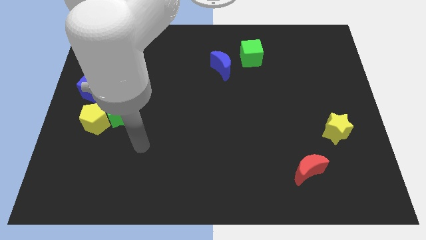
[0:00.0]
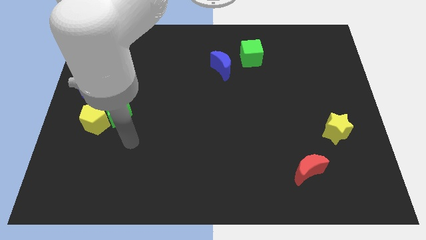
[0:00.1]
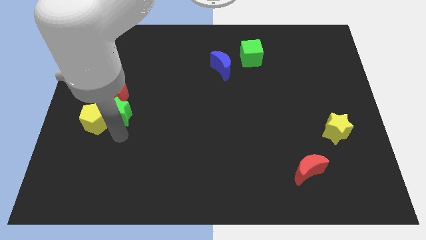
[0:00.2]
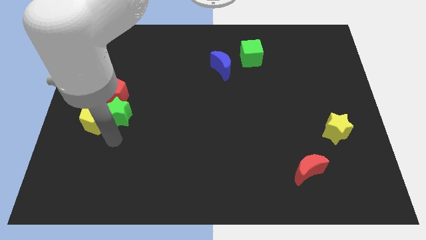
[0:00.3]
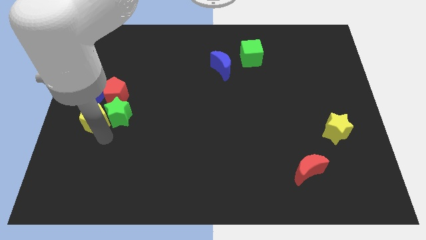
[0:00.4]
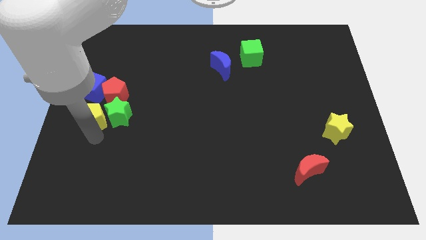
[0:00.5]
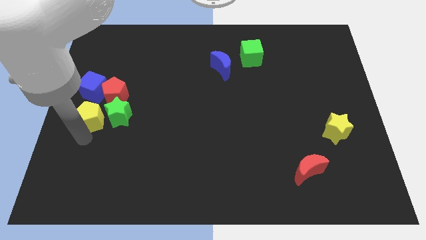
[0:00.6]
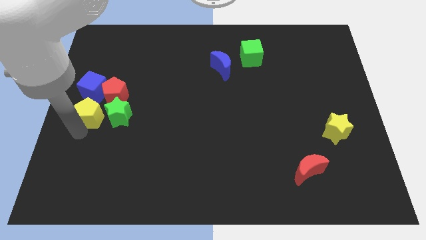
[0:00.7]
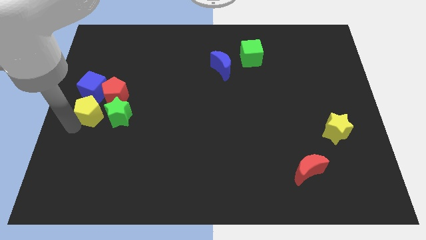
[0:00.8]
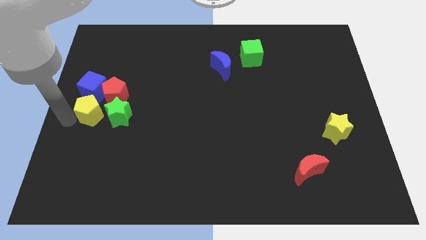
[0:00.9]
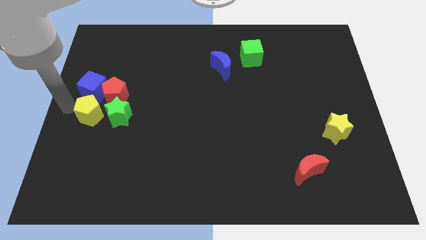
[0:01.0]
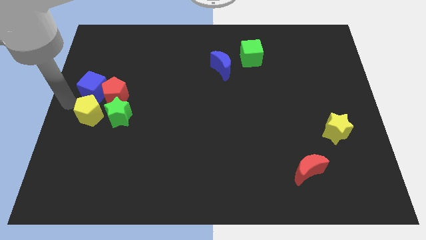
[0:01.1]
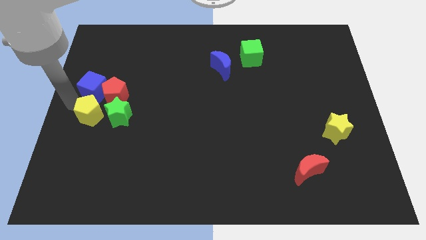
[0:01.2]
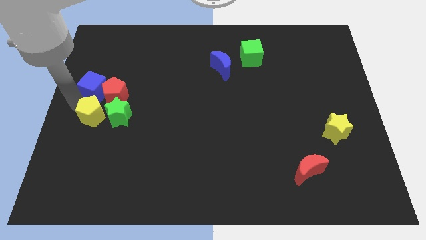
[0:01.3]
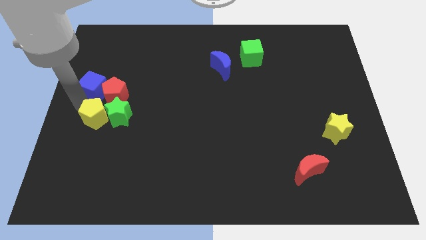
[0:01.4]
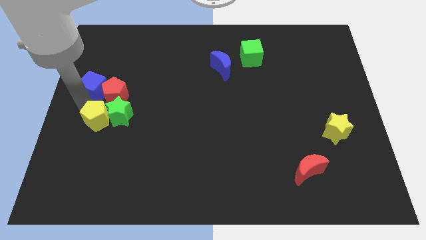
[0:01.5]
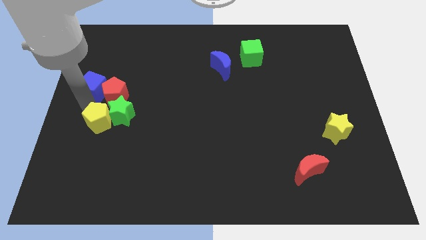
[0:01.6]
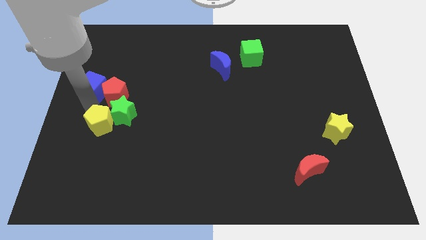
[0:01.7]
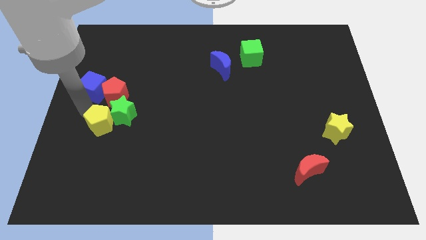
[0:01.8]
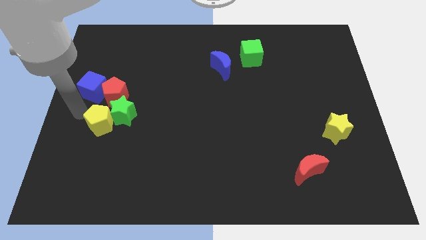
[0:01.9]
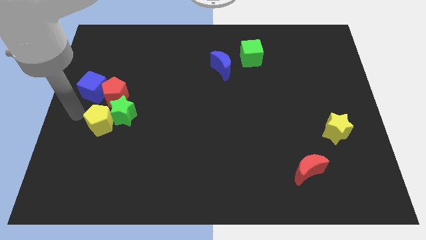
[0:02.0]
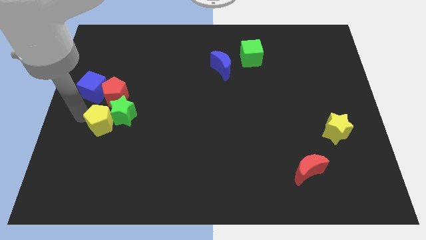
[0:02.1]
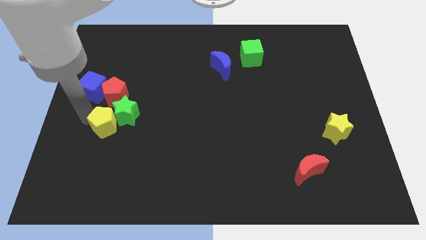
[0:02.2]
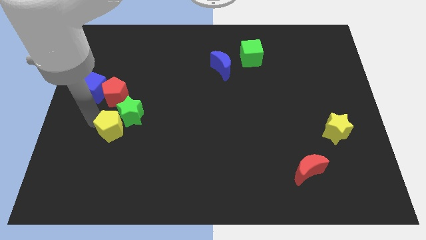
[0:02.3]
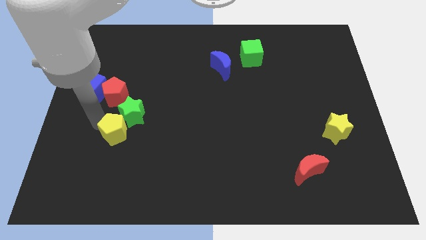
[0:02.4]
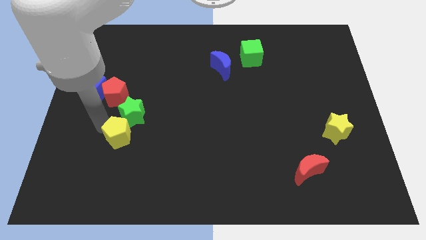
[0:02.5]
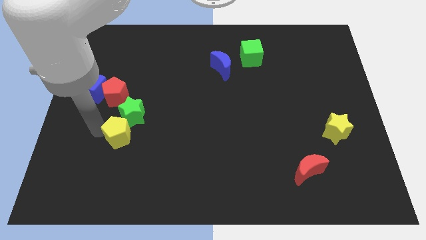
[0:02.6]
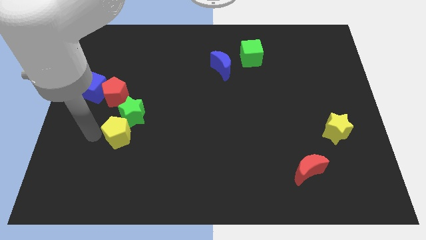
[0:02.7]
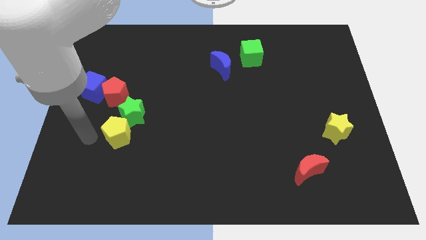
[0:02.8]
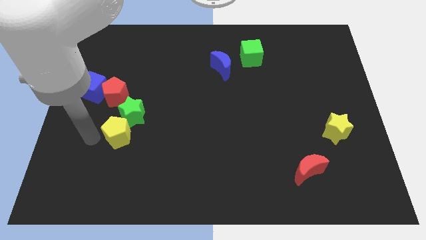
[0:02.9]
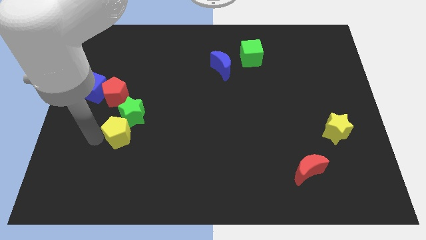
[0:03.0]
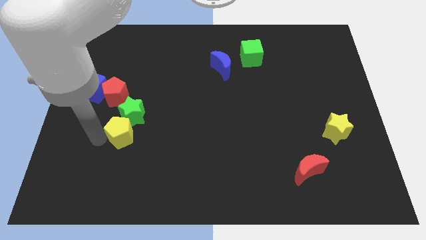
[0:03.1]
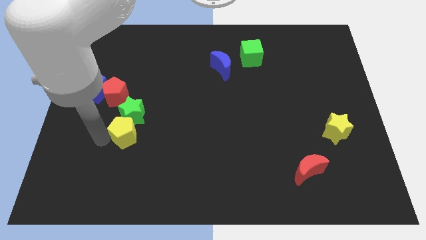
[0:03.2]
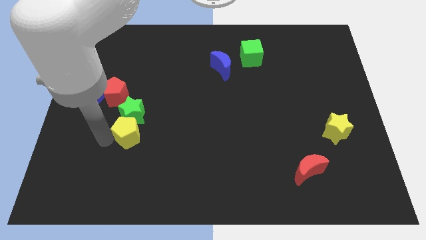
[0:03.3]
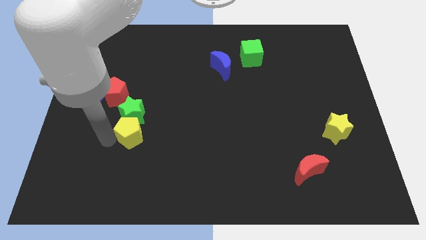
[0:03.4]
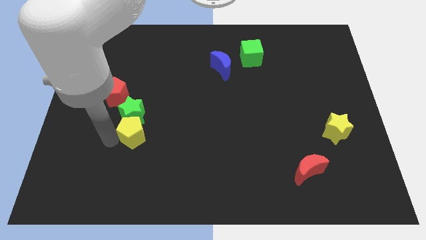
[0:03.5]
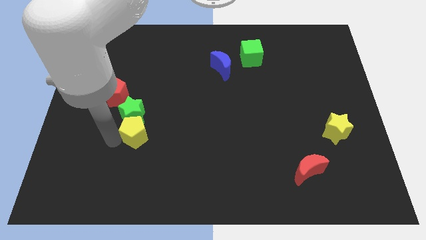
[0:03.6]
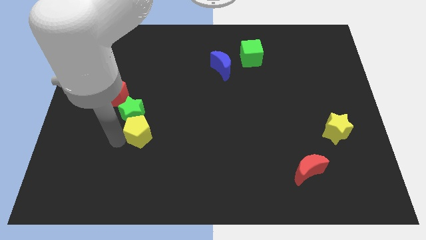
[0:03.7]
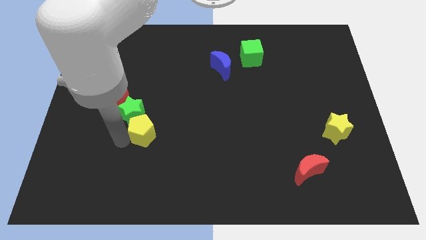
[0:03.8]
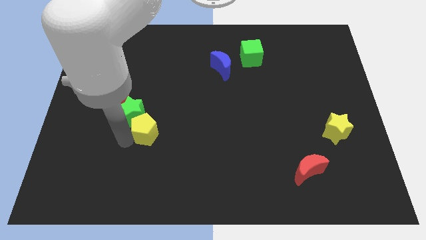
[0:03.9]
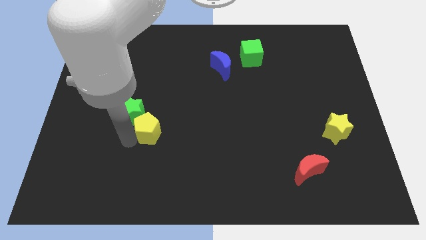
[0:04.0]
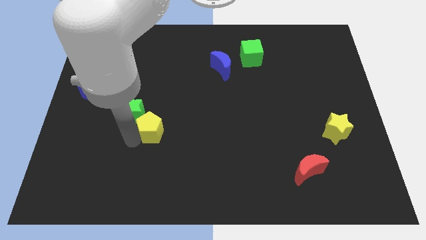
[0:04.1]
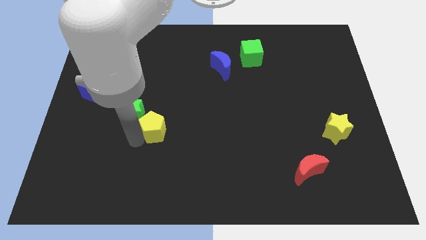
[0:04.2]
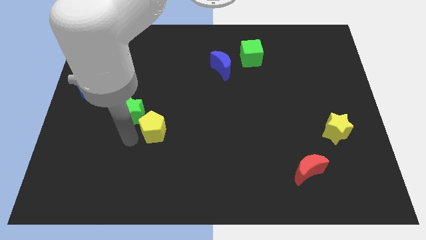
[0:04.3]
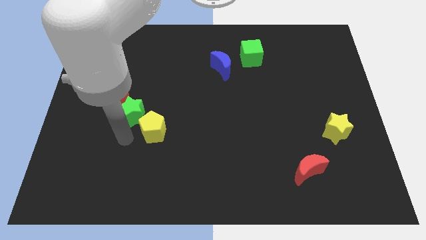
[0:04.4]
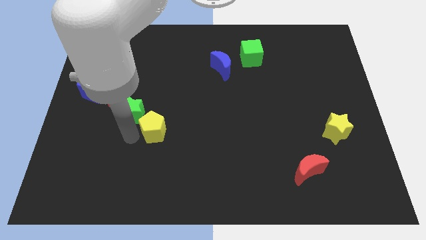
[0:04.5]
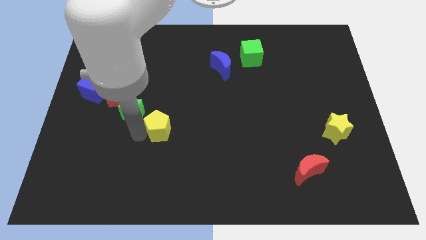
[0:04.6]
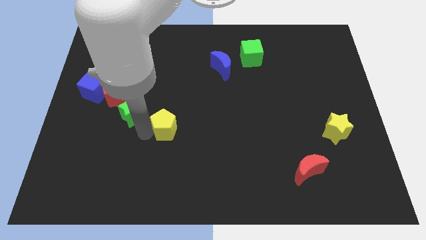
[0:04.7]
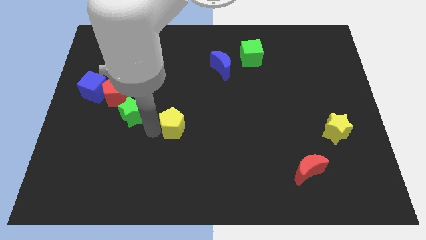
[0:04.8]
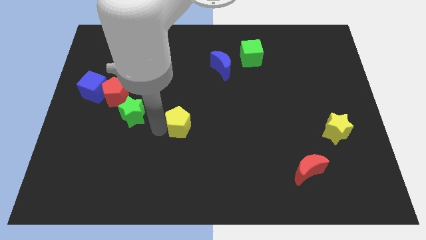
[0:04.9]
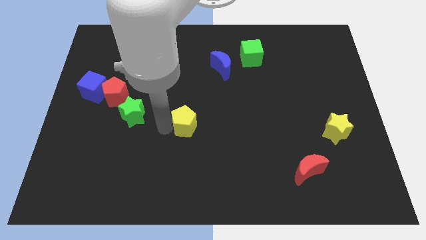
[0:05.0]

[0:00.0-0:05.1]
slide the yellow pentagon right

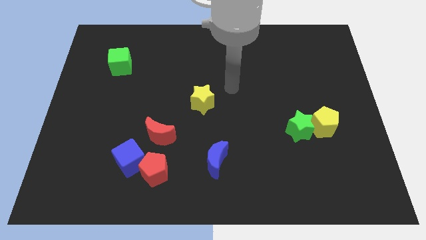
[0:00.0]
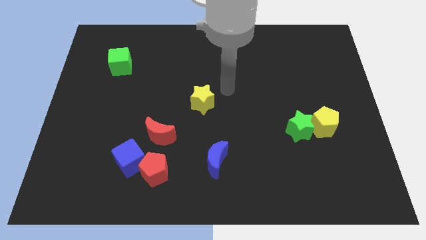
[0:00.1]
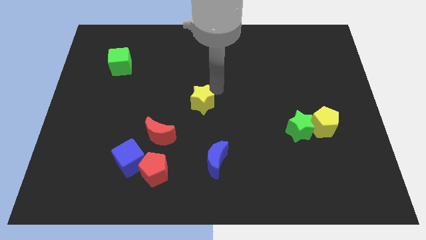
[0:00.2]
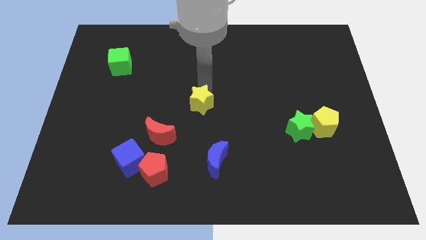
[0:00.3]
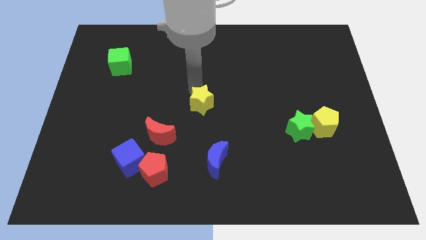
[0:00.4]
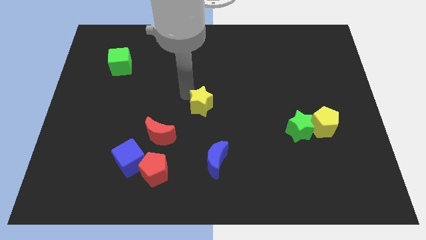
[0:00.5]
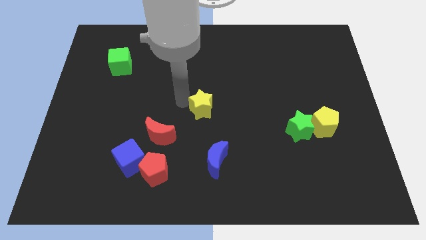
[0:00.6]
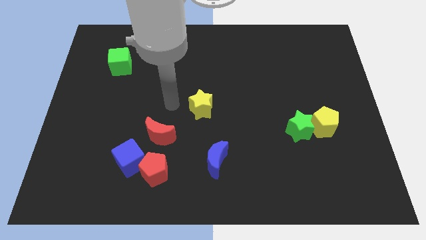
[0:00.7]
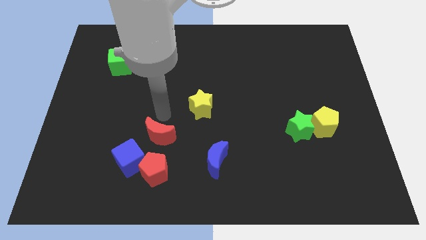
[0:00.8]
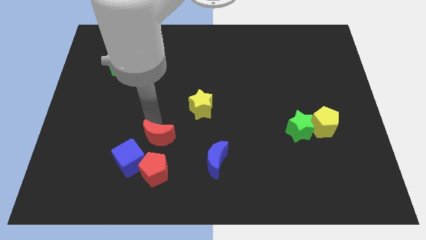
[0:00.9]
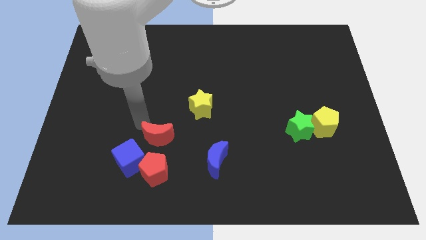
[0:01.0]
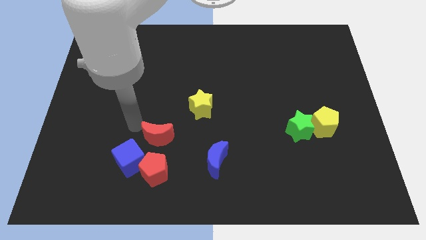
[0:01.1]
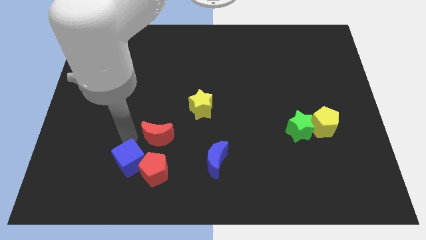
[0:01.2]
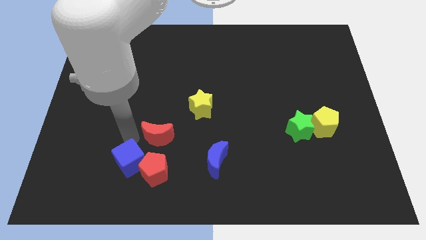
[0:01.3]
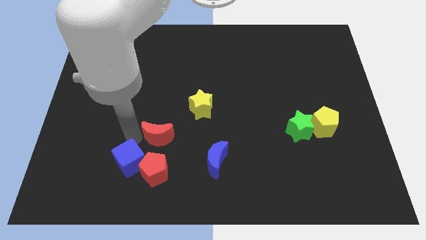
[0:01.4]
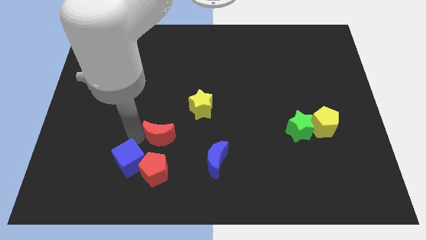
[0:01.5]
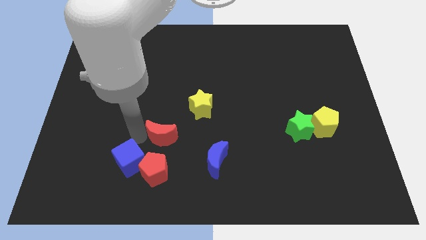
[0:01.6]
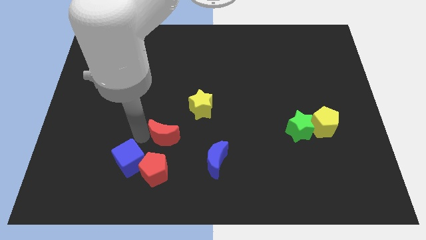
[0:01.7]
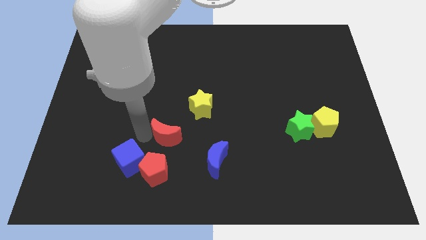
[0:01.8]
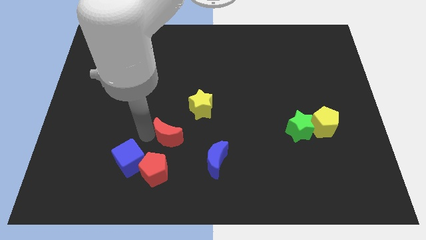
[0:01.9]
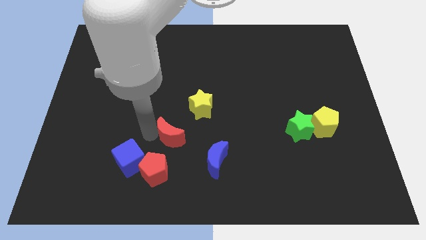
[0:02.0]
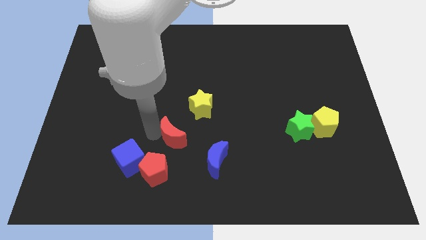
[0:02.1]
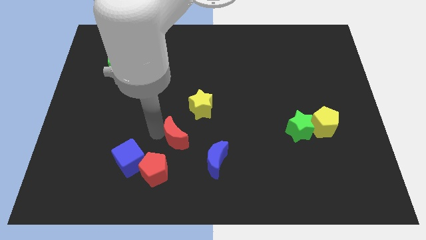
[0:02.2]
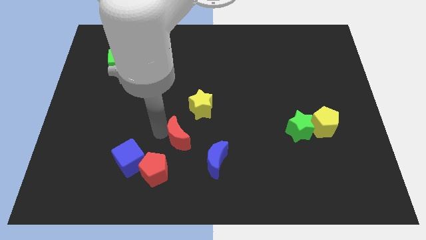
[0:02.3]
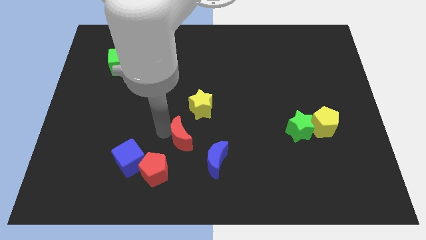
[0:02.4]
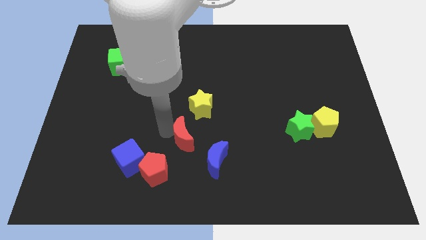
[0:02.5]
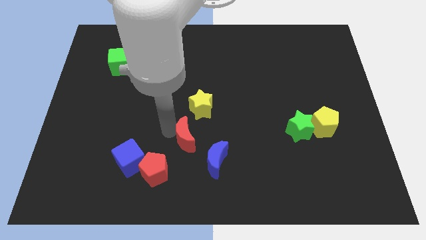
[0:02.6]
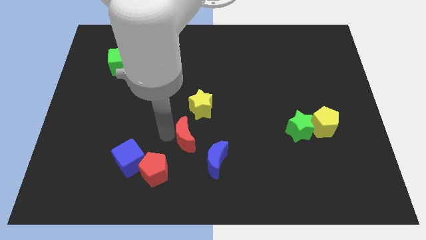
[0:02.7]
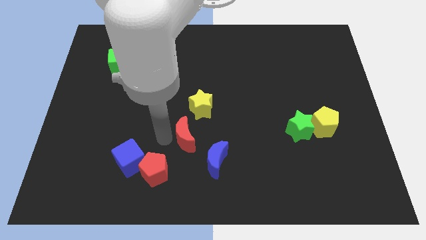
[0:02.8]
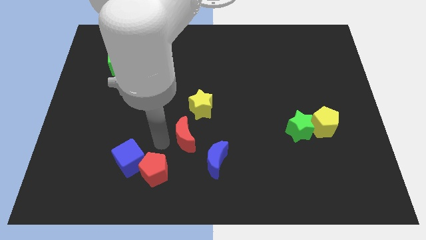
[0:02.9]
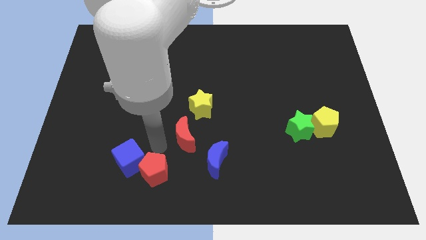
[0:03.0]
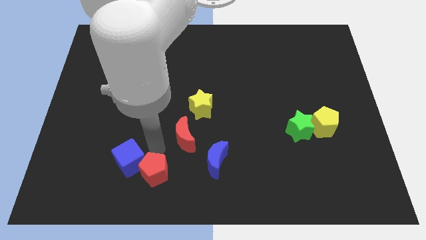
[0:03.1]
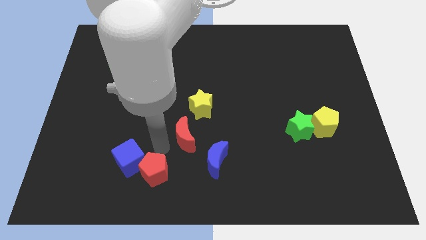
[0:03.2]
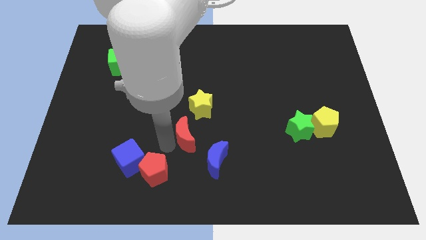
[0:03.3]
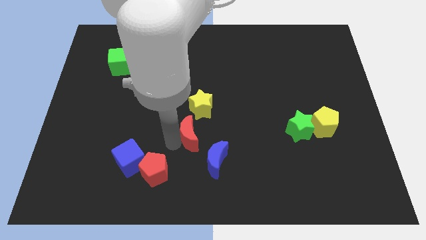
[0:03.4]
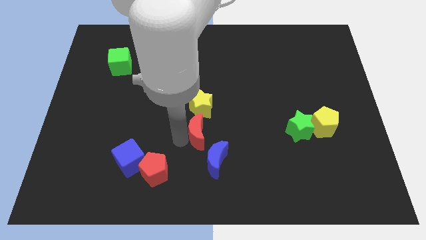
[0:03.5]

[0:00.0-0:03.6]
move the red moon right a little bit
